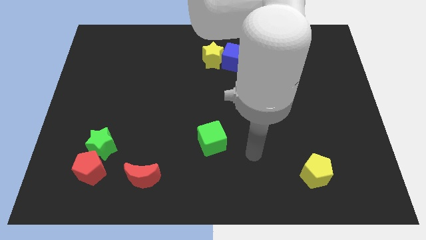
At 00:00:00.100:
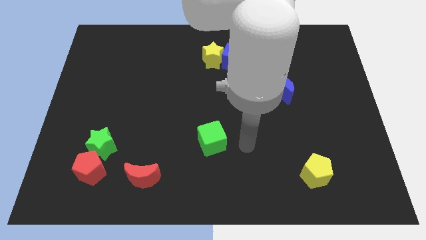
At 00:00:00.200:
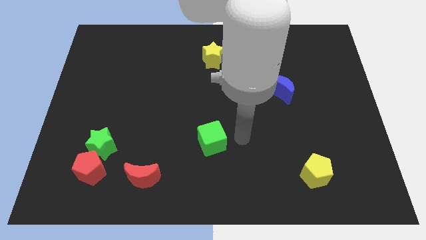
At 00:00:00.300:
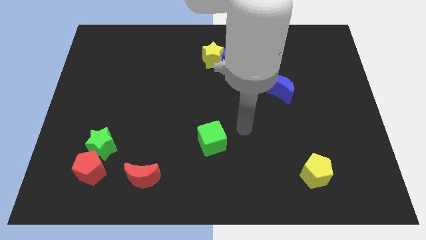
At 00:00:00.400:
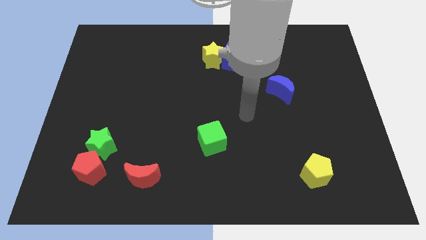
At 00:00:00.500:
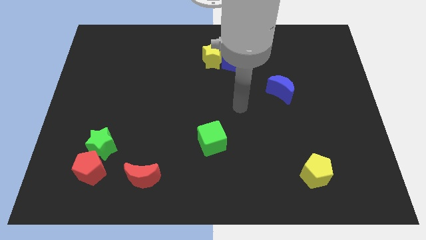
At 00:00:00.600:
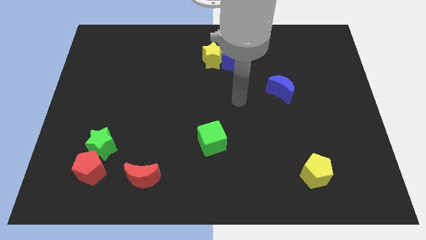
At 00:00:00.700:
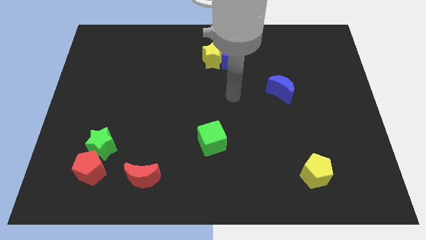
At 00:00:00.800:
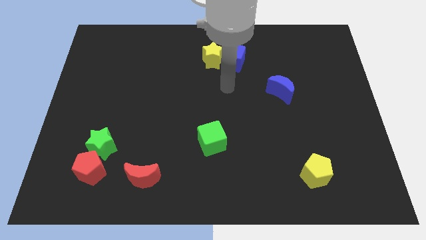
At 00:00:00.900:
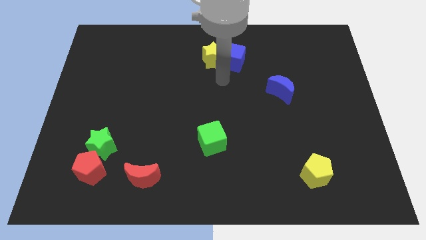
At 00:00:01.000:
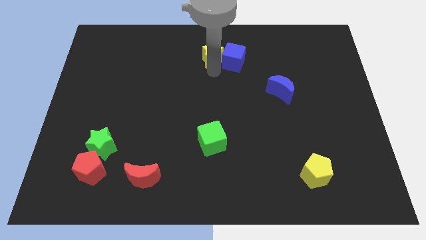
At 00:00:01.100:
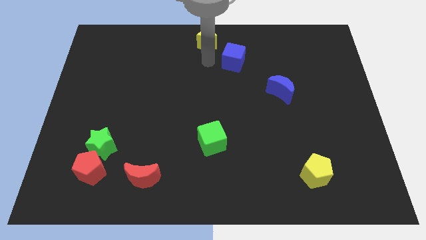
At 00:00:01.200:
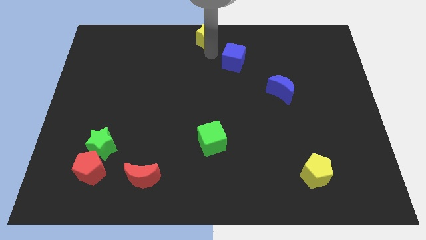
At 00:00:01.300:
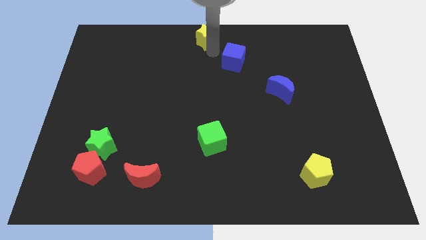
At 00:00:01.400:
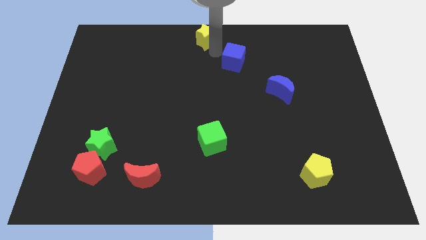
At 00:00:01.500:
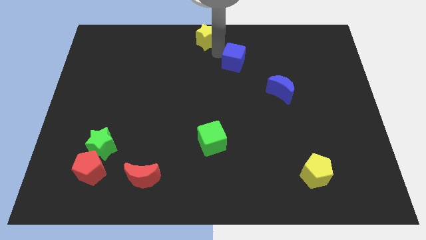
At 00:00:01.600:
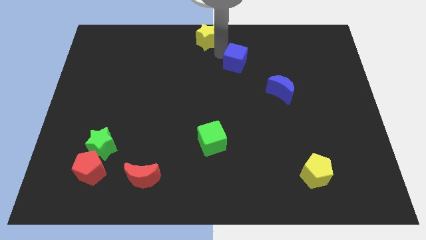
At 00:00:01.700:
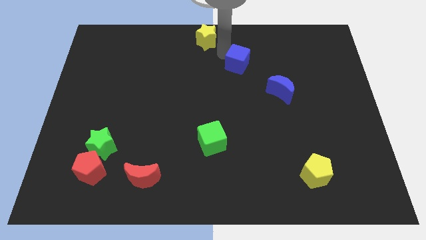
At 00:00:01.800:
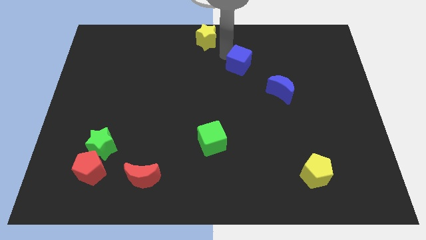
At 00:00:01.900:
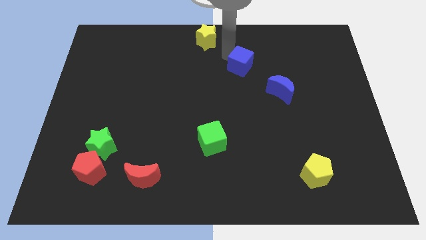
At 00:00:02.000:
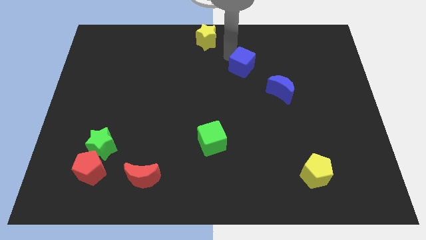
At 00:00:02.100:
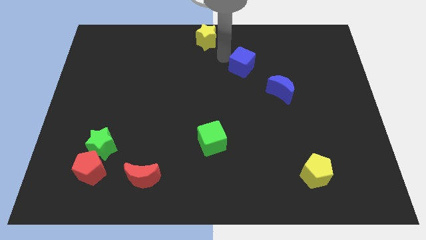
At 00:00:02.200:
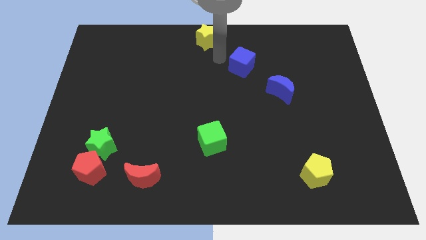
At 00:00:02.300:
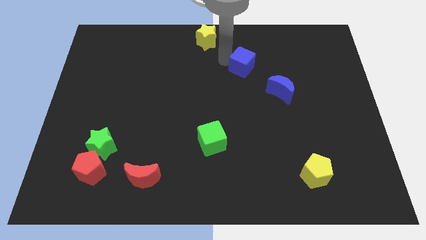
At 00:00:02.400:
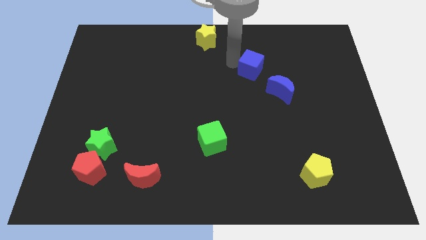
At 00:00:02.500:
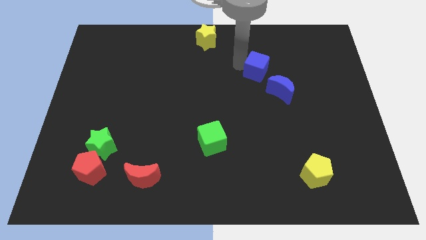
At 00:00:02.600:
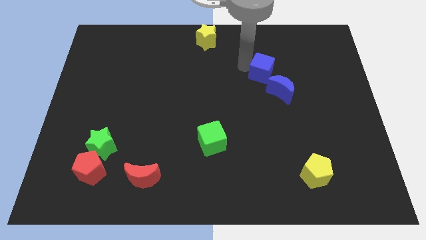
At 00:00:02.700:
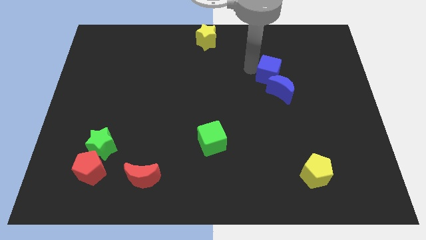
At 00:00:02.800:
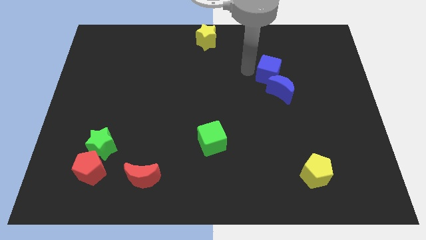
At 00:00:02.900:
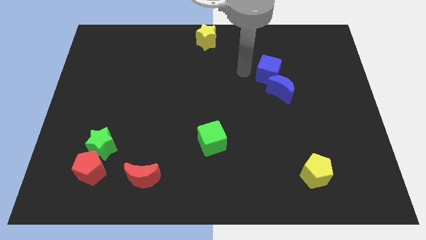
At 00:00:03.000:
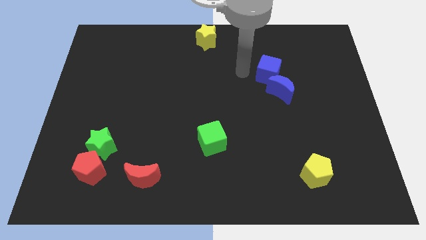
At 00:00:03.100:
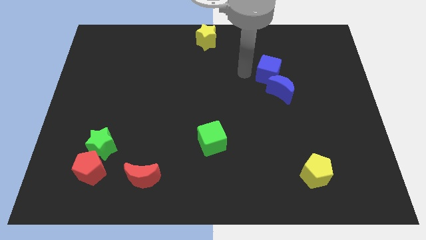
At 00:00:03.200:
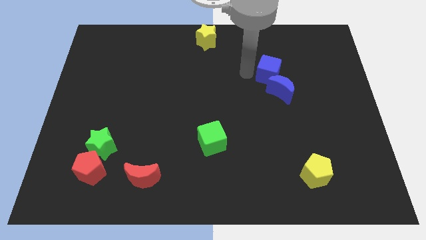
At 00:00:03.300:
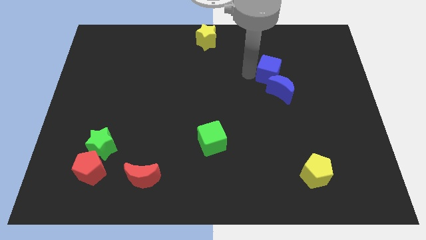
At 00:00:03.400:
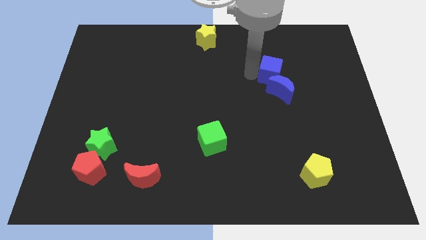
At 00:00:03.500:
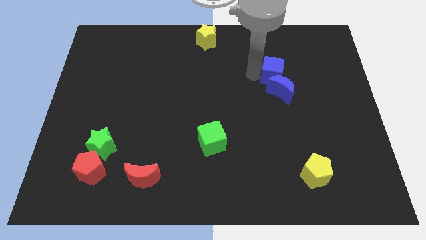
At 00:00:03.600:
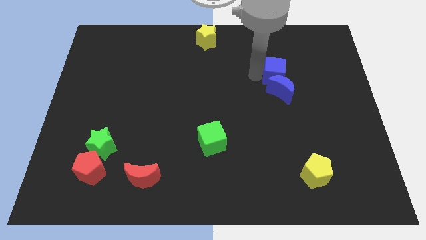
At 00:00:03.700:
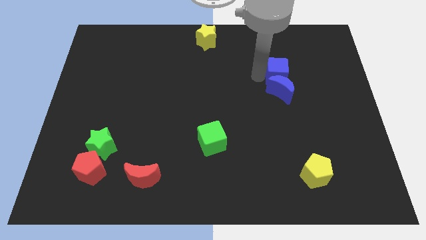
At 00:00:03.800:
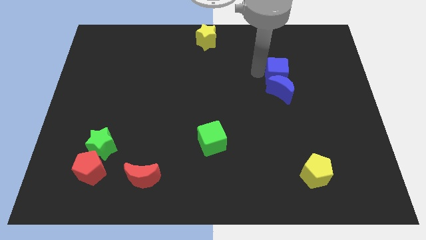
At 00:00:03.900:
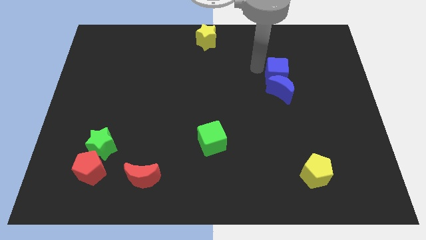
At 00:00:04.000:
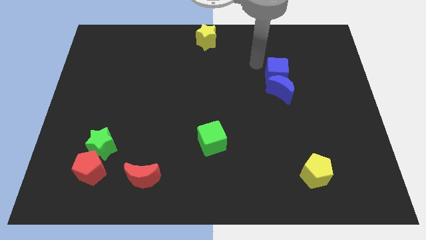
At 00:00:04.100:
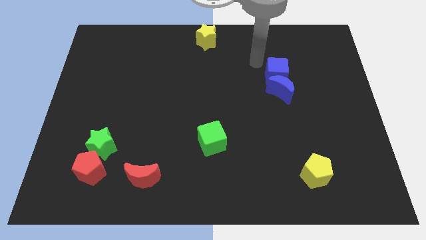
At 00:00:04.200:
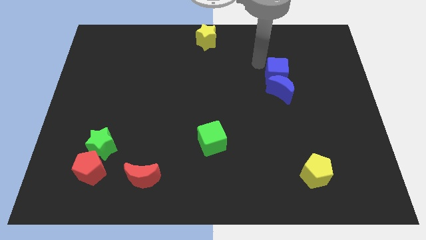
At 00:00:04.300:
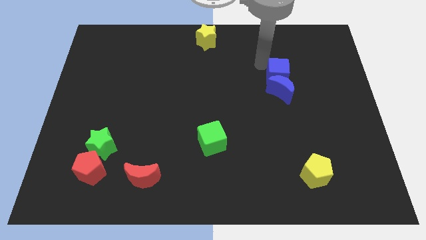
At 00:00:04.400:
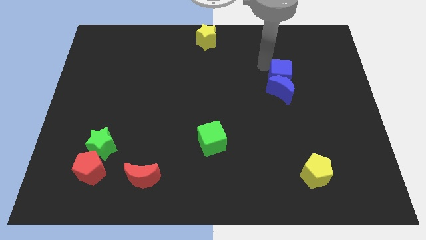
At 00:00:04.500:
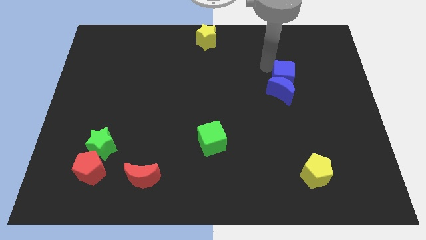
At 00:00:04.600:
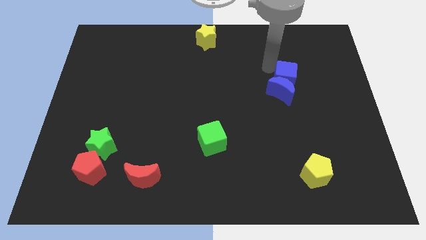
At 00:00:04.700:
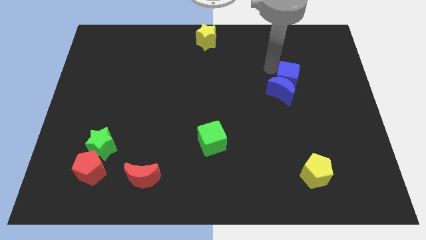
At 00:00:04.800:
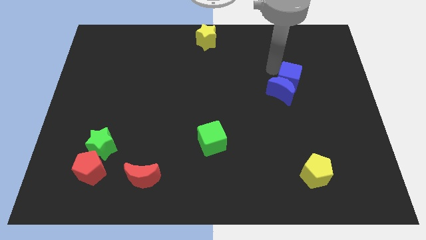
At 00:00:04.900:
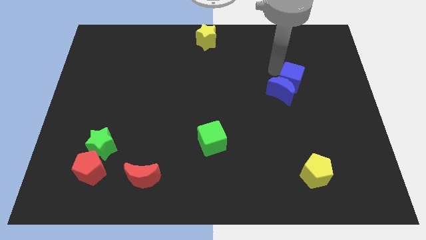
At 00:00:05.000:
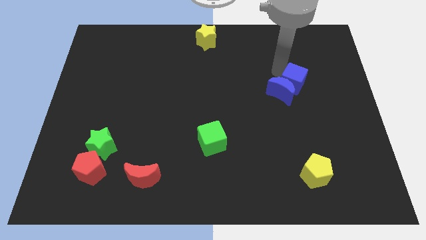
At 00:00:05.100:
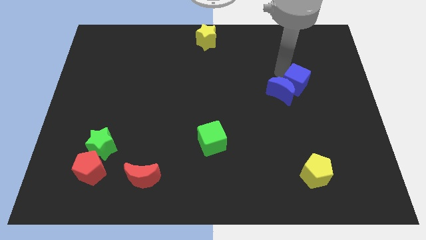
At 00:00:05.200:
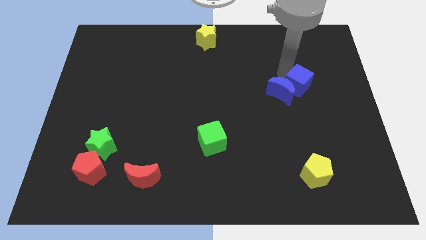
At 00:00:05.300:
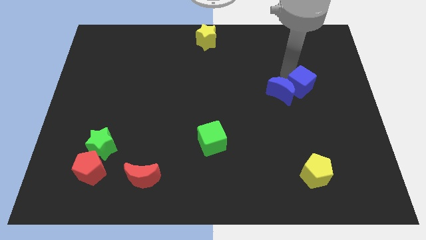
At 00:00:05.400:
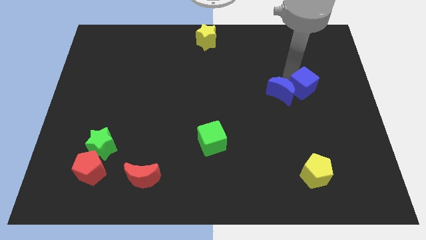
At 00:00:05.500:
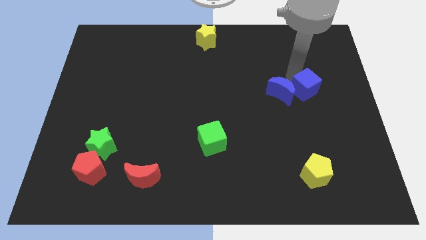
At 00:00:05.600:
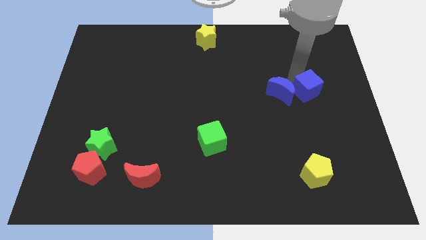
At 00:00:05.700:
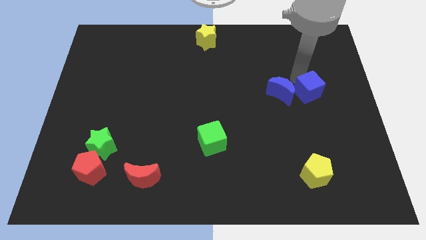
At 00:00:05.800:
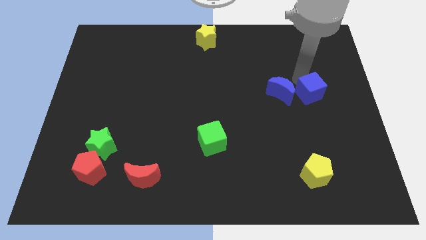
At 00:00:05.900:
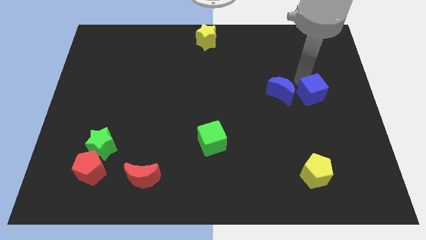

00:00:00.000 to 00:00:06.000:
slide the blue cube diagonally down and to the right

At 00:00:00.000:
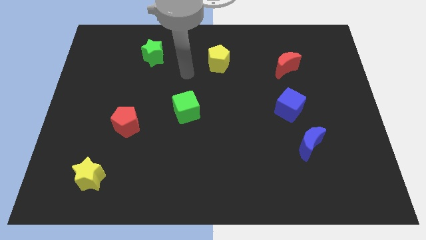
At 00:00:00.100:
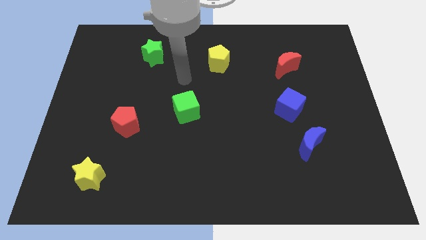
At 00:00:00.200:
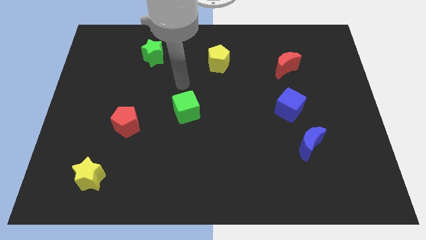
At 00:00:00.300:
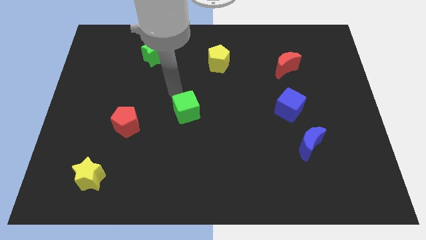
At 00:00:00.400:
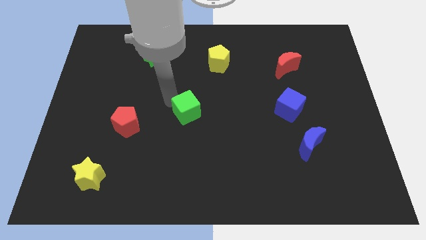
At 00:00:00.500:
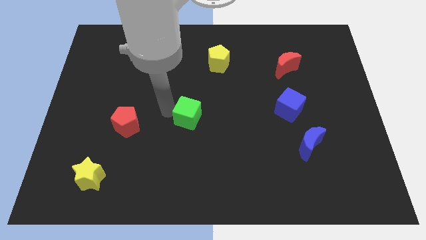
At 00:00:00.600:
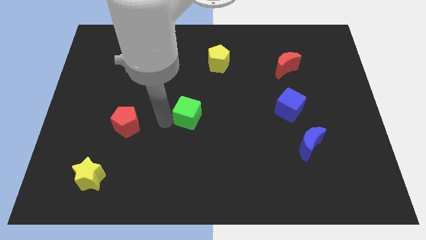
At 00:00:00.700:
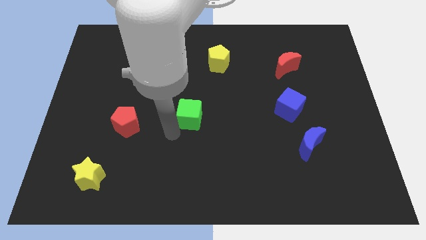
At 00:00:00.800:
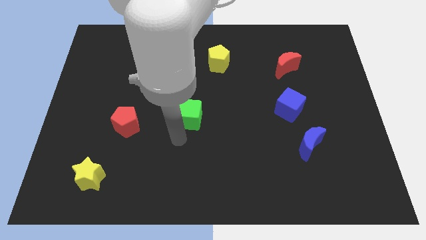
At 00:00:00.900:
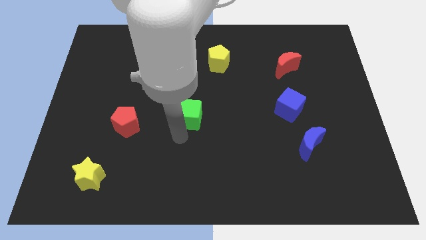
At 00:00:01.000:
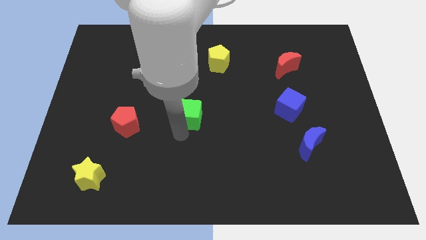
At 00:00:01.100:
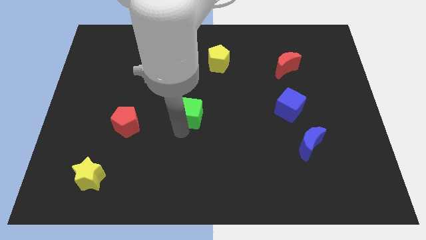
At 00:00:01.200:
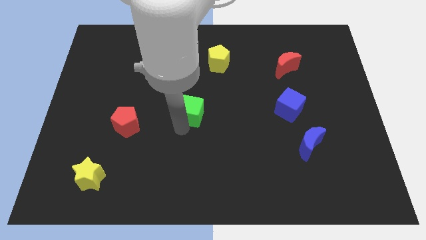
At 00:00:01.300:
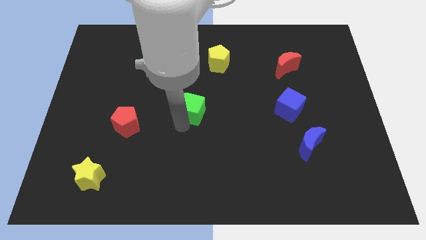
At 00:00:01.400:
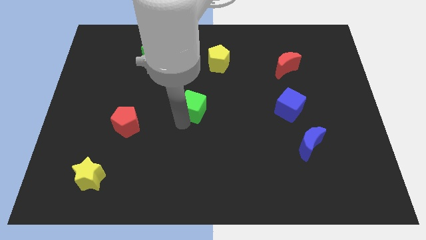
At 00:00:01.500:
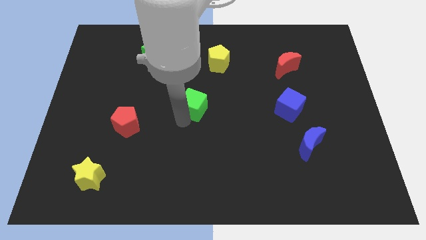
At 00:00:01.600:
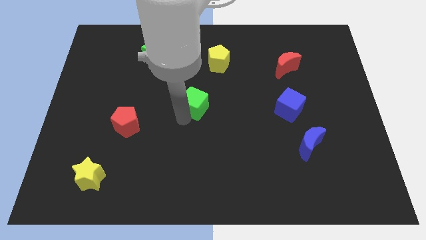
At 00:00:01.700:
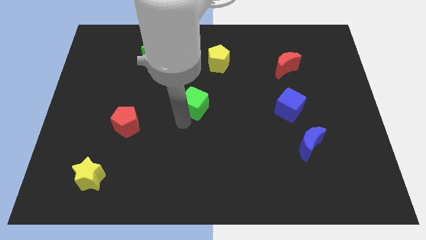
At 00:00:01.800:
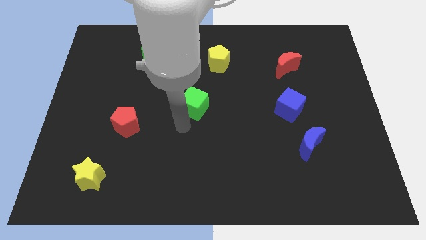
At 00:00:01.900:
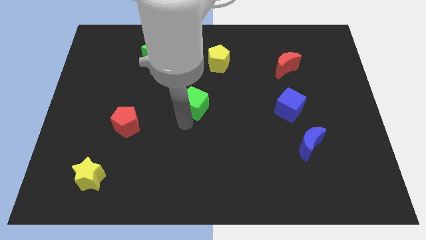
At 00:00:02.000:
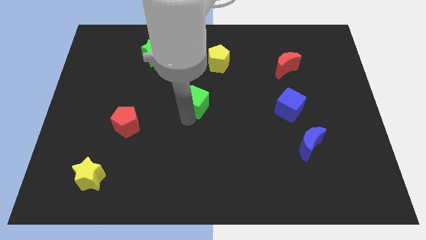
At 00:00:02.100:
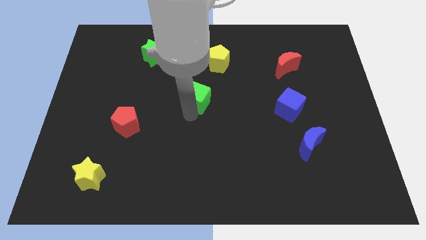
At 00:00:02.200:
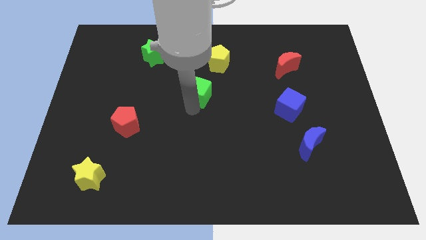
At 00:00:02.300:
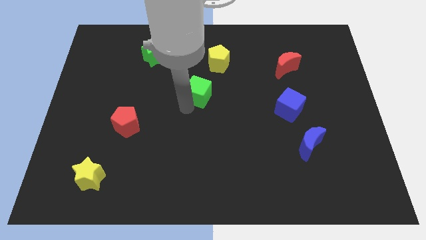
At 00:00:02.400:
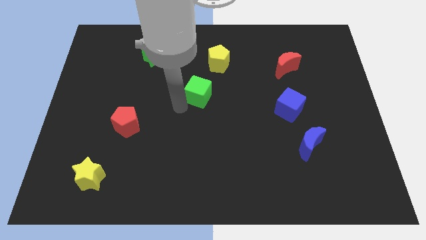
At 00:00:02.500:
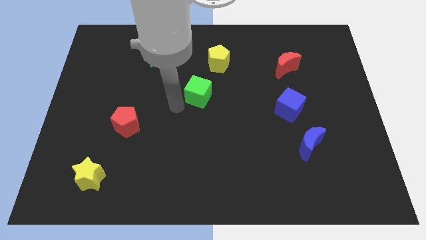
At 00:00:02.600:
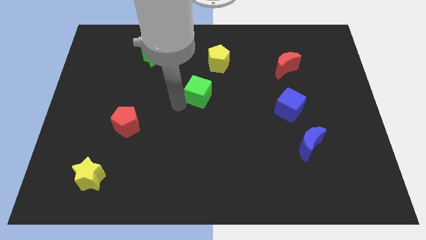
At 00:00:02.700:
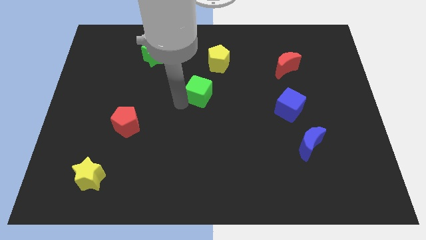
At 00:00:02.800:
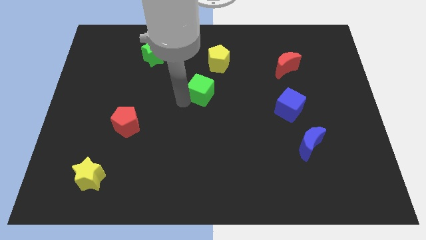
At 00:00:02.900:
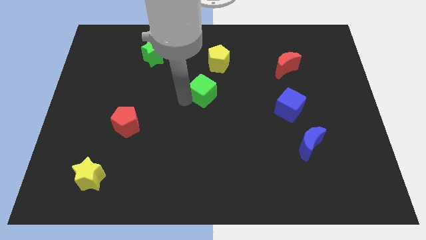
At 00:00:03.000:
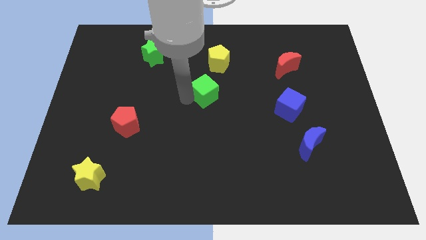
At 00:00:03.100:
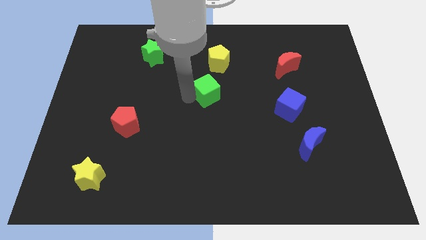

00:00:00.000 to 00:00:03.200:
slightly slide the green cube diagonally up and right
